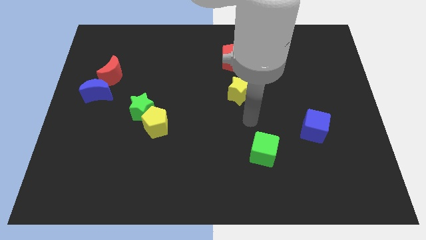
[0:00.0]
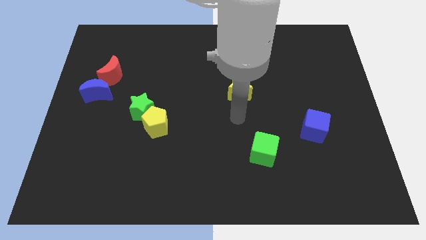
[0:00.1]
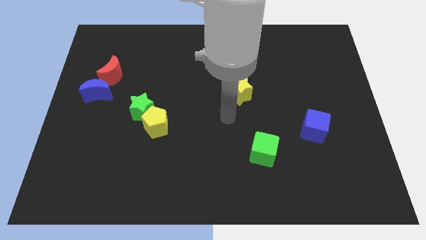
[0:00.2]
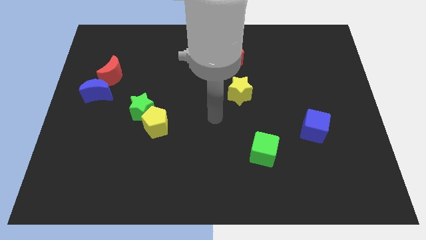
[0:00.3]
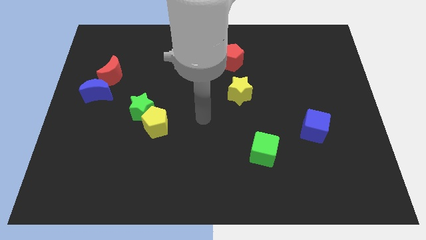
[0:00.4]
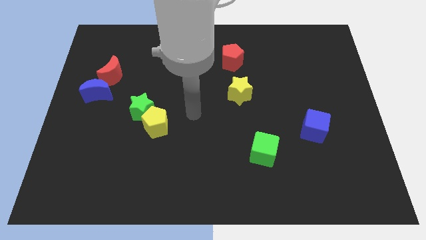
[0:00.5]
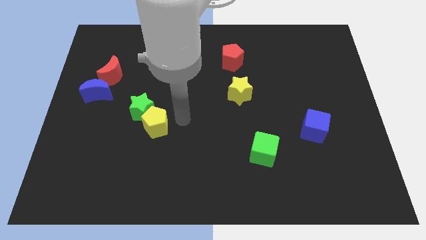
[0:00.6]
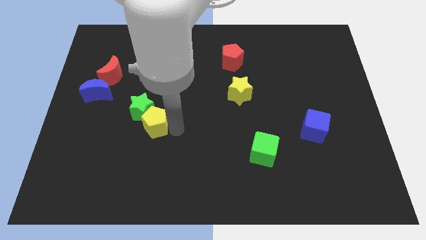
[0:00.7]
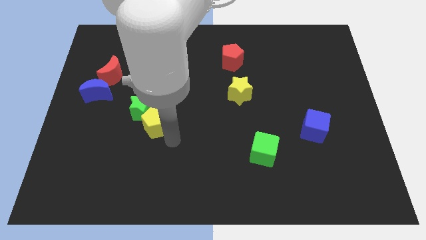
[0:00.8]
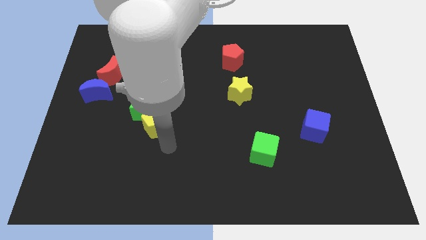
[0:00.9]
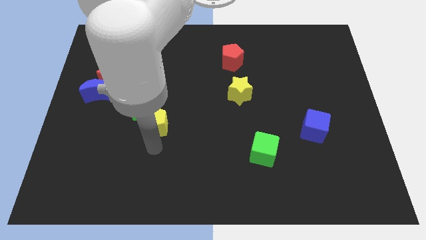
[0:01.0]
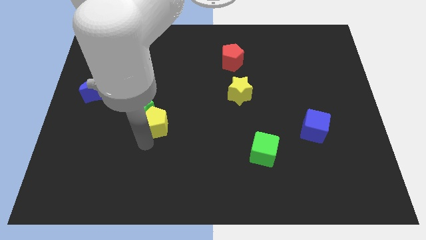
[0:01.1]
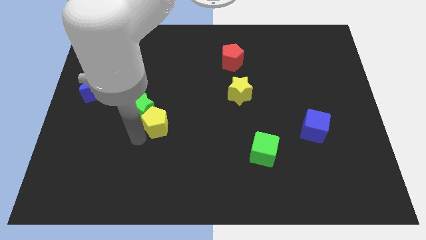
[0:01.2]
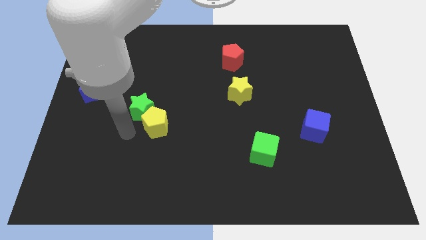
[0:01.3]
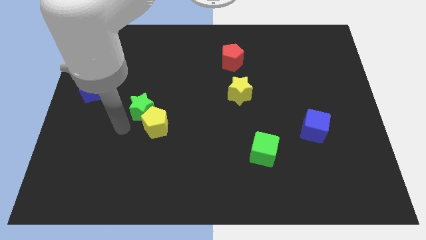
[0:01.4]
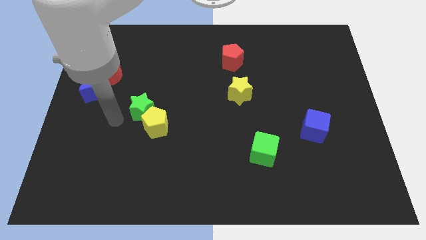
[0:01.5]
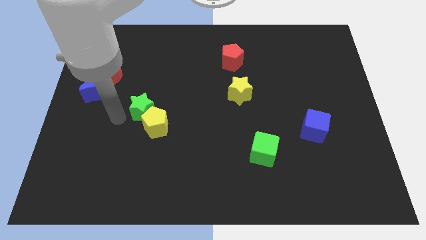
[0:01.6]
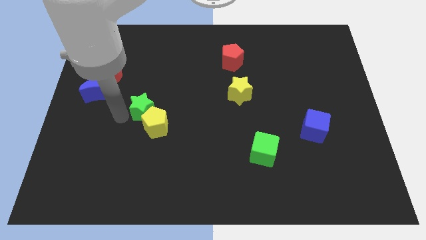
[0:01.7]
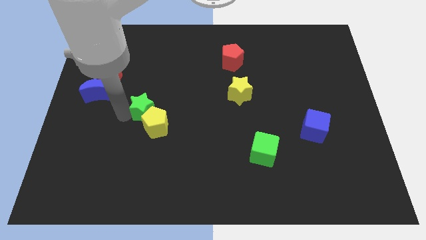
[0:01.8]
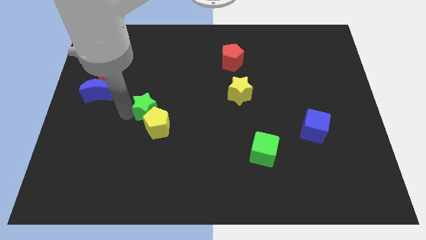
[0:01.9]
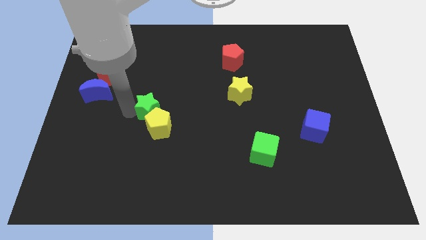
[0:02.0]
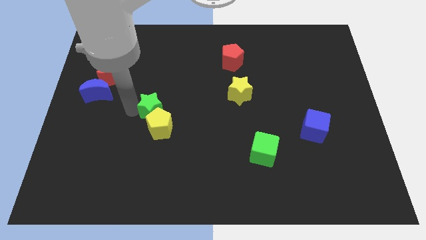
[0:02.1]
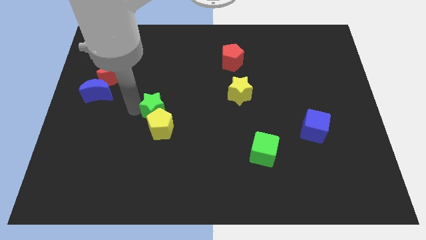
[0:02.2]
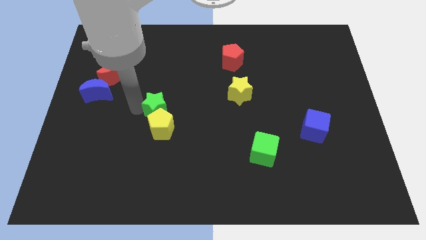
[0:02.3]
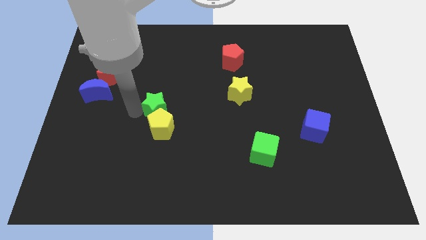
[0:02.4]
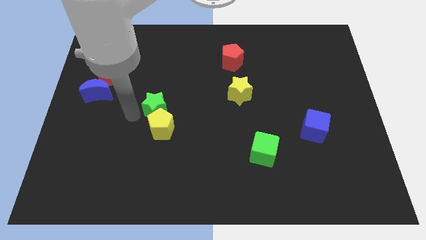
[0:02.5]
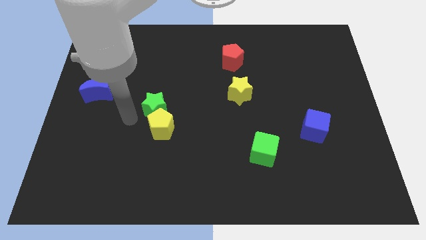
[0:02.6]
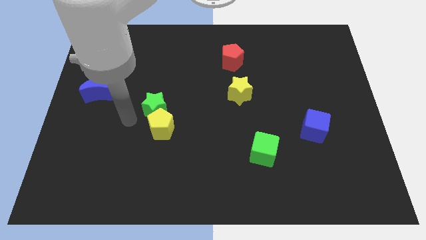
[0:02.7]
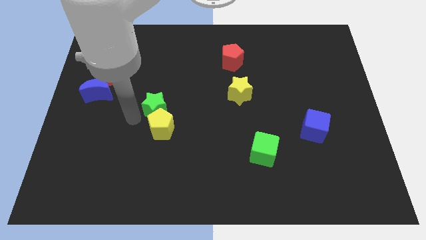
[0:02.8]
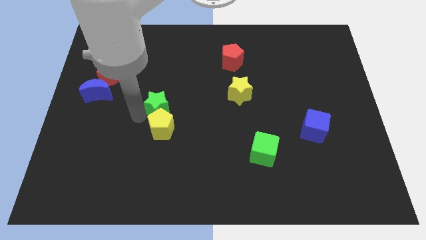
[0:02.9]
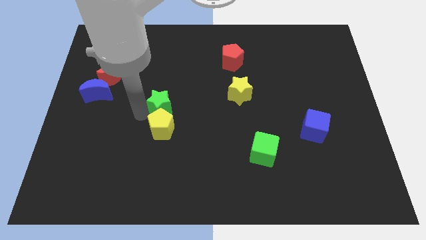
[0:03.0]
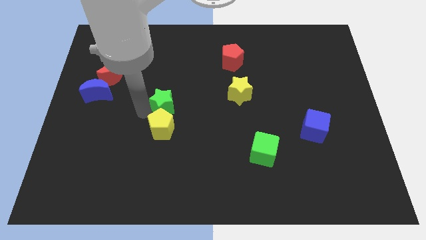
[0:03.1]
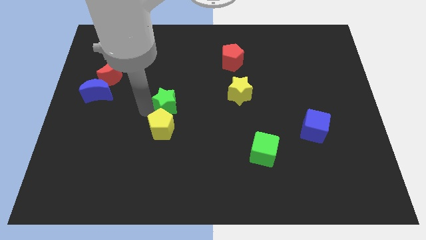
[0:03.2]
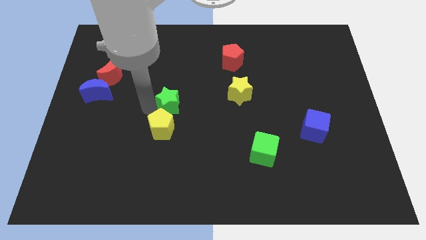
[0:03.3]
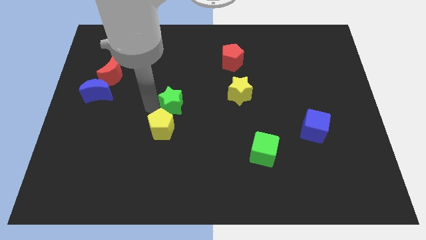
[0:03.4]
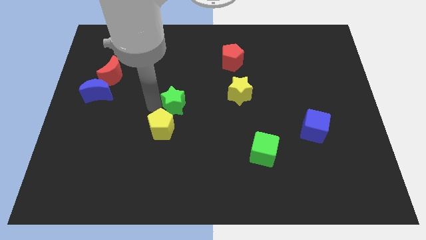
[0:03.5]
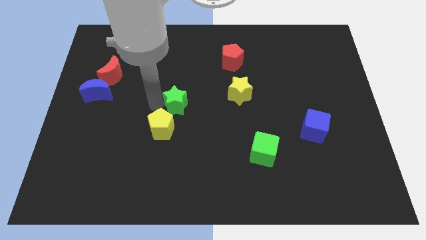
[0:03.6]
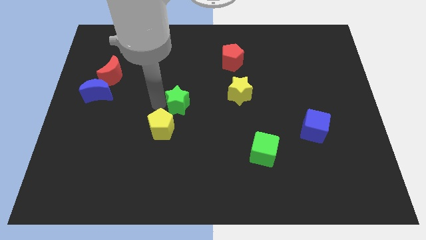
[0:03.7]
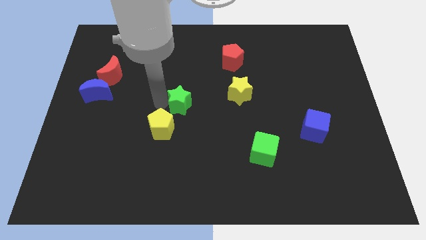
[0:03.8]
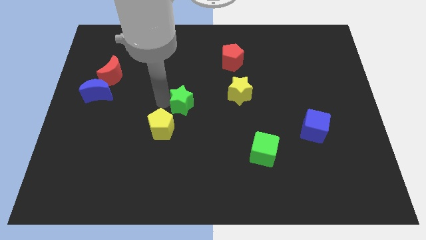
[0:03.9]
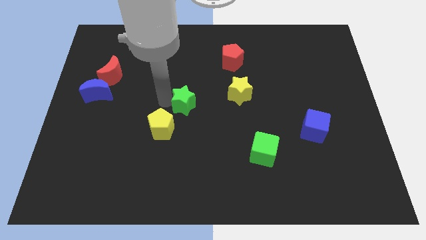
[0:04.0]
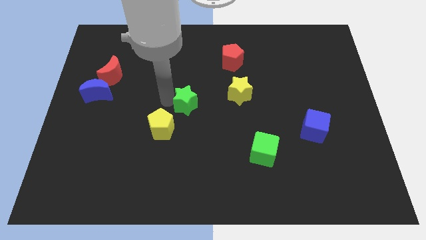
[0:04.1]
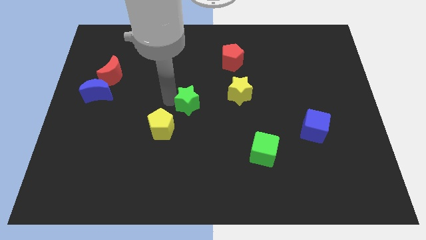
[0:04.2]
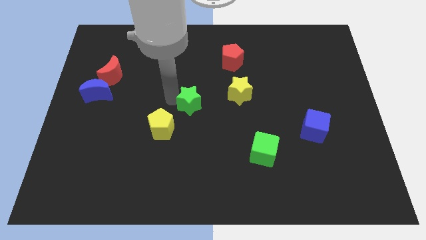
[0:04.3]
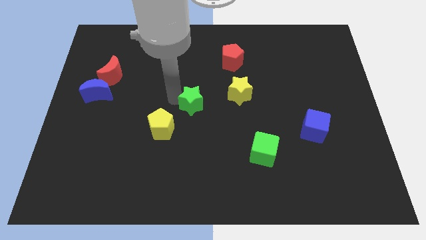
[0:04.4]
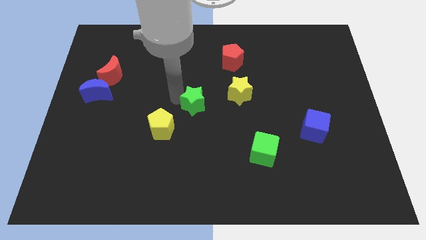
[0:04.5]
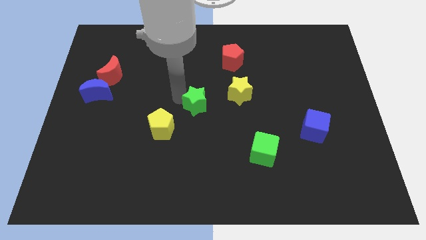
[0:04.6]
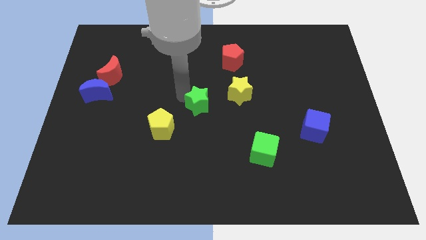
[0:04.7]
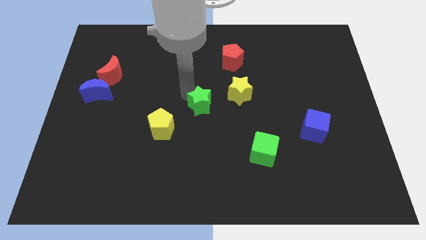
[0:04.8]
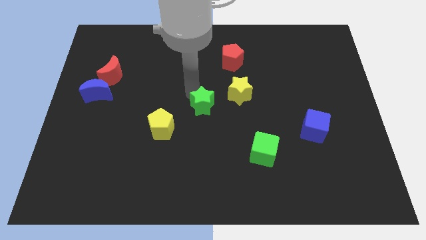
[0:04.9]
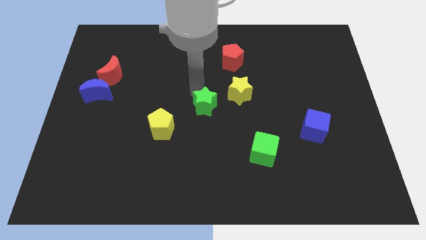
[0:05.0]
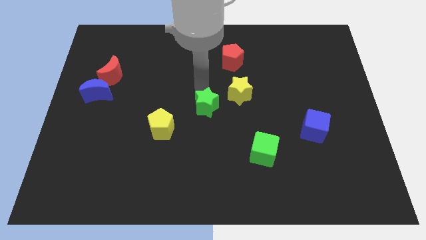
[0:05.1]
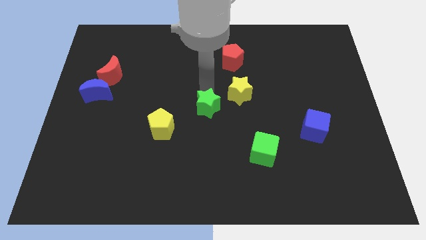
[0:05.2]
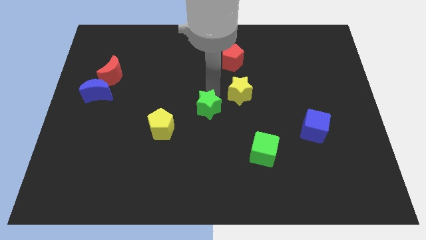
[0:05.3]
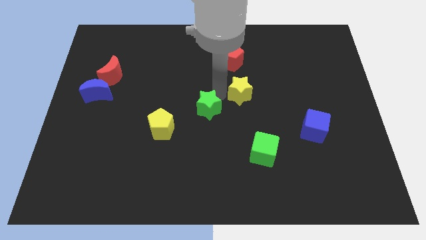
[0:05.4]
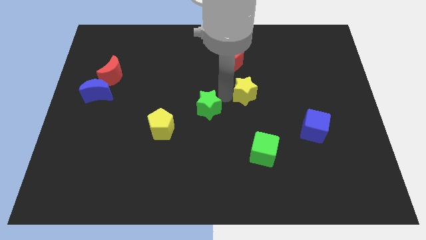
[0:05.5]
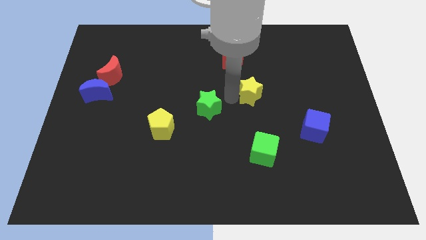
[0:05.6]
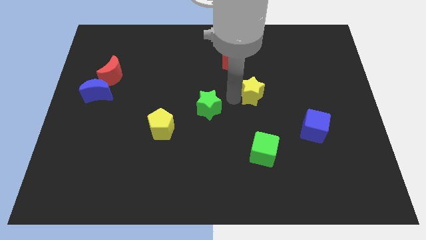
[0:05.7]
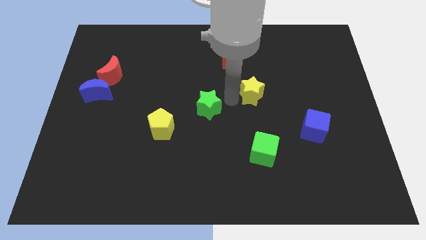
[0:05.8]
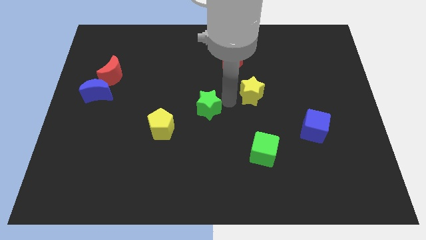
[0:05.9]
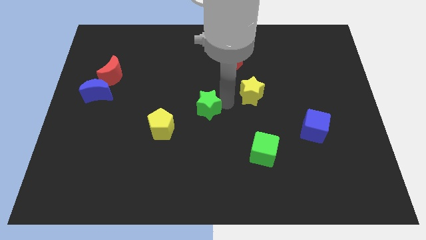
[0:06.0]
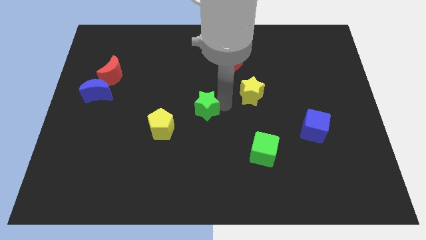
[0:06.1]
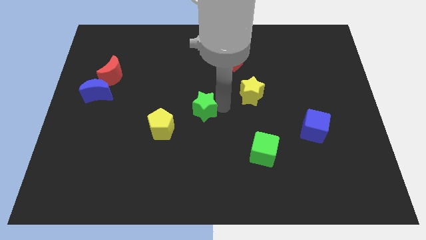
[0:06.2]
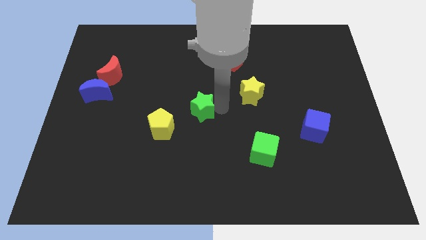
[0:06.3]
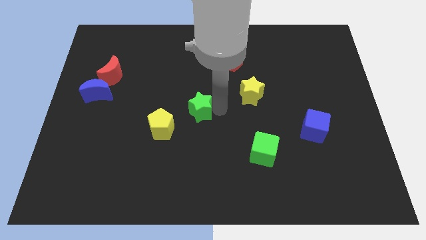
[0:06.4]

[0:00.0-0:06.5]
put the green star right of the yellow pentagon

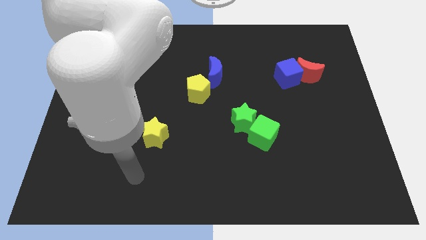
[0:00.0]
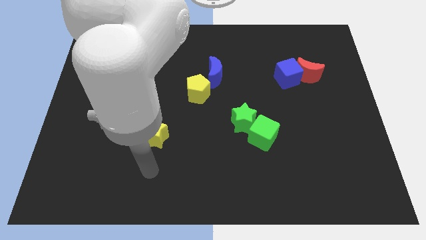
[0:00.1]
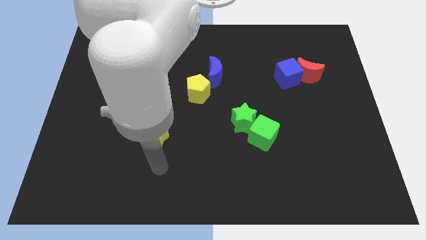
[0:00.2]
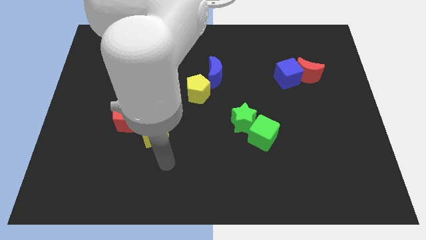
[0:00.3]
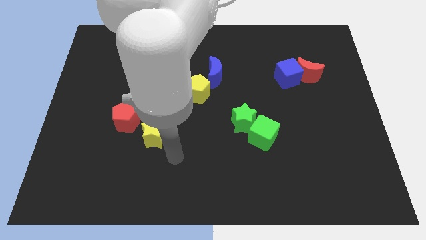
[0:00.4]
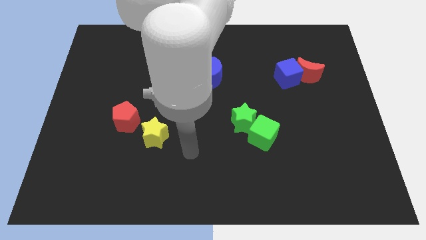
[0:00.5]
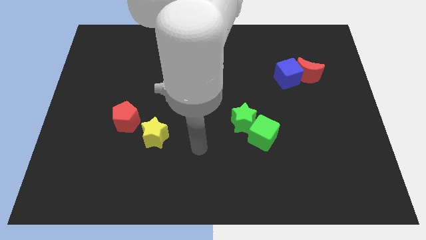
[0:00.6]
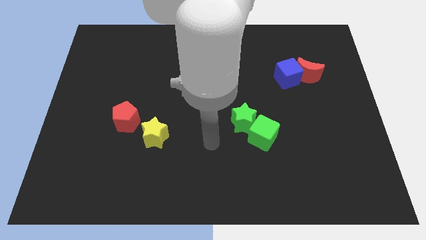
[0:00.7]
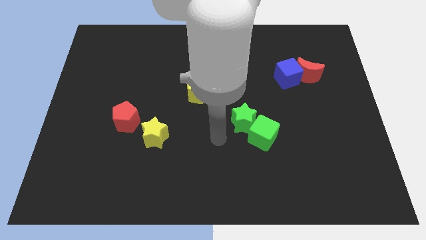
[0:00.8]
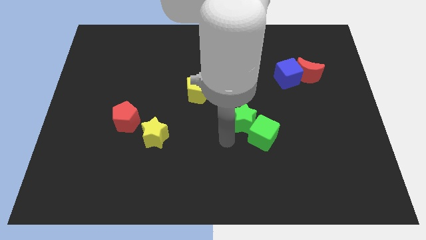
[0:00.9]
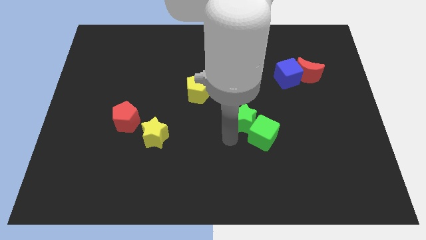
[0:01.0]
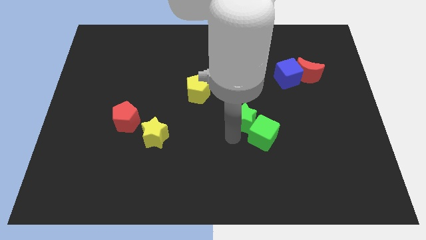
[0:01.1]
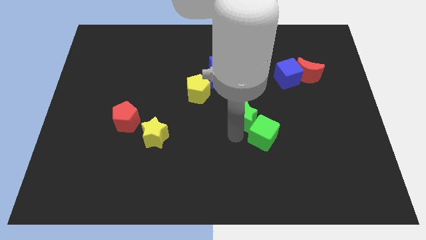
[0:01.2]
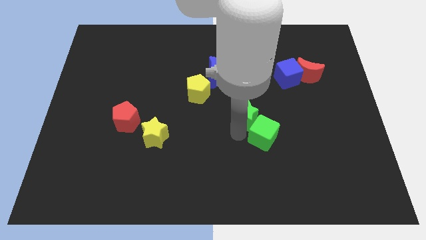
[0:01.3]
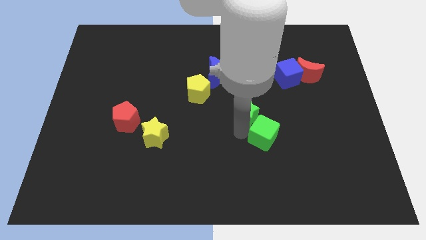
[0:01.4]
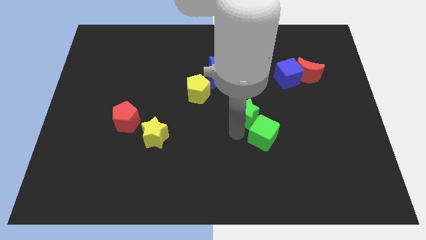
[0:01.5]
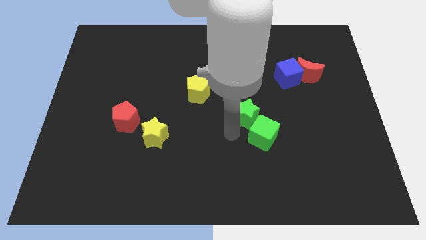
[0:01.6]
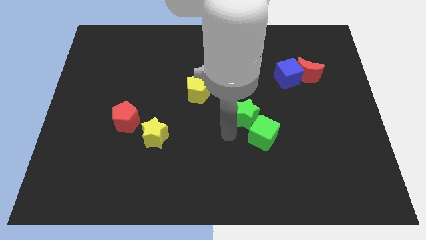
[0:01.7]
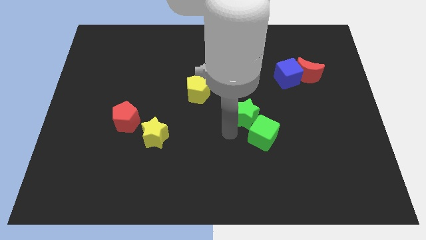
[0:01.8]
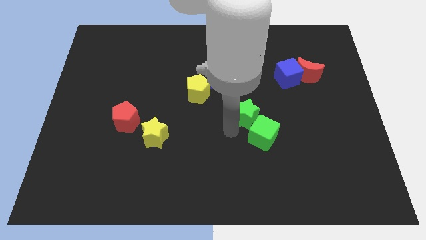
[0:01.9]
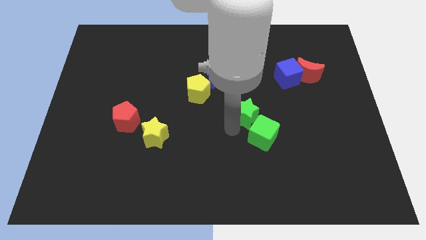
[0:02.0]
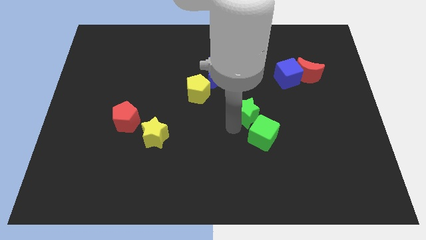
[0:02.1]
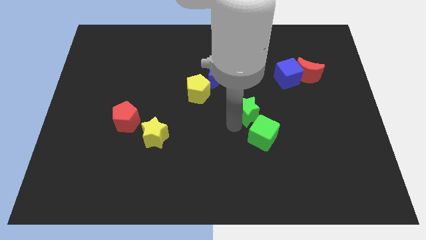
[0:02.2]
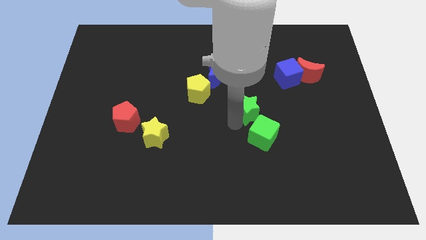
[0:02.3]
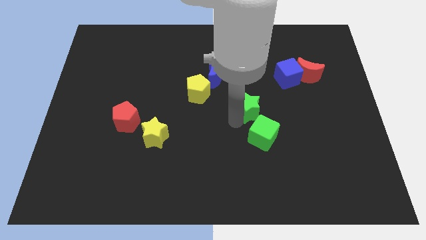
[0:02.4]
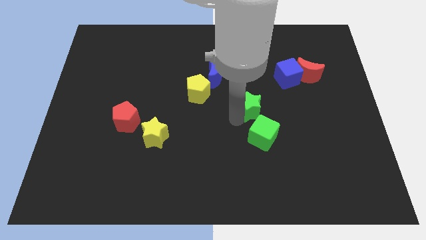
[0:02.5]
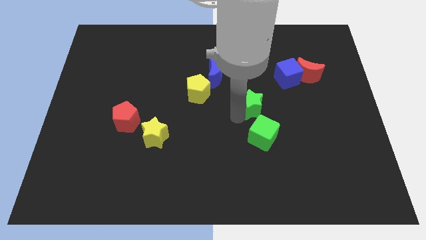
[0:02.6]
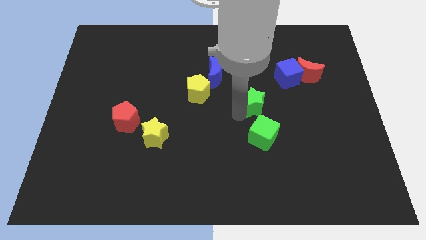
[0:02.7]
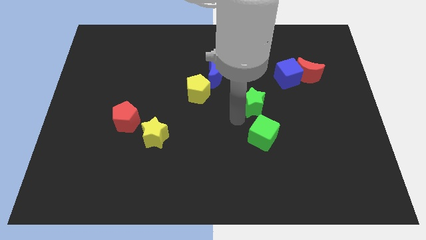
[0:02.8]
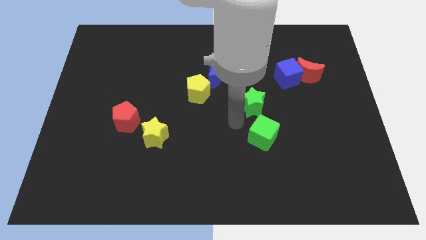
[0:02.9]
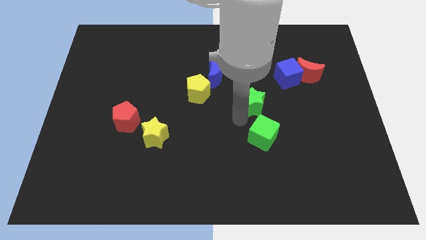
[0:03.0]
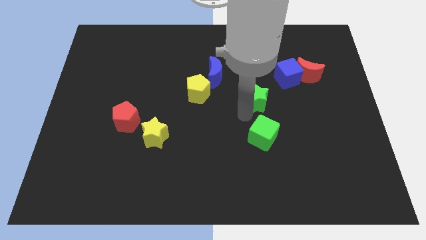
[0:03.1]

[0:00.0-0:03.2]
move the green star to the bottom left of the blue cube
